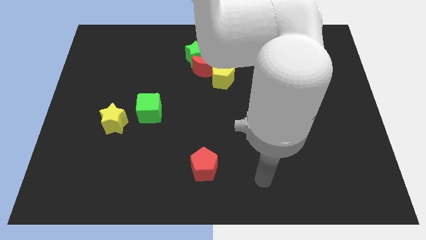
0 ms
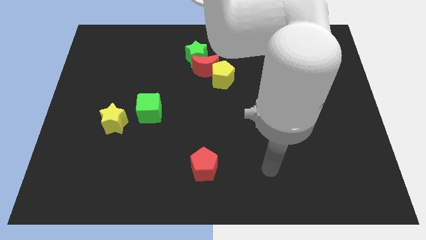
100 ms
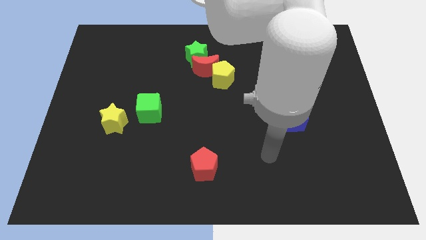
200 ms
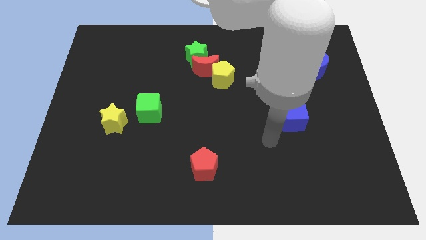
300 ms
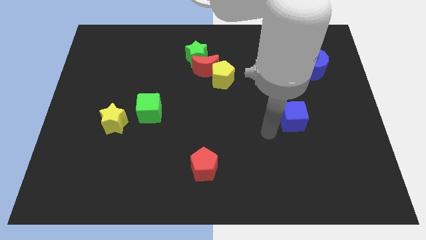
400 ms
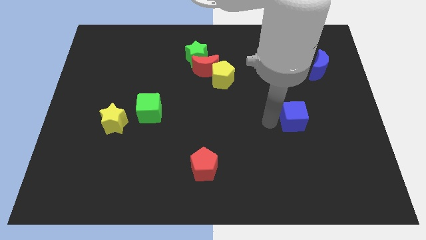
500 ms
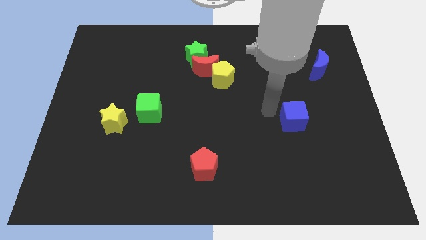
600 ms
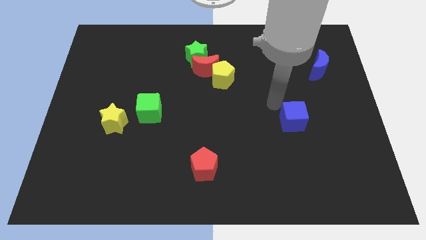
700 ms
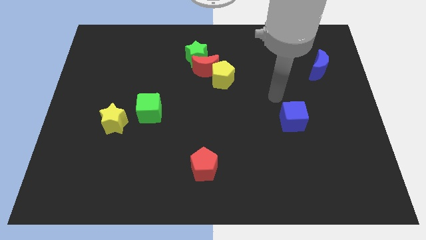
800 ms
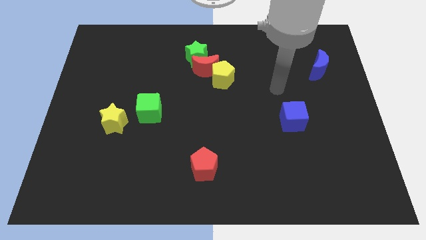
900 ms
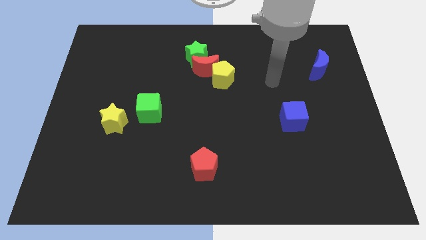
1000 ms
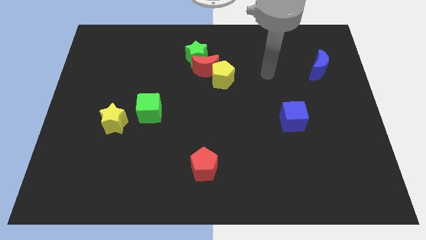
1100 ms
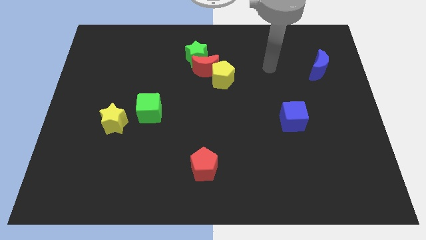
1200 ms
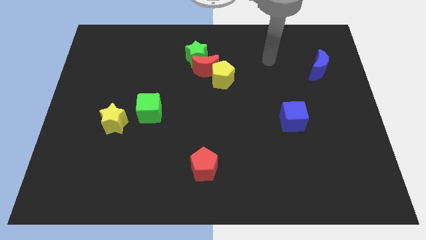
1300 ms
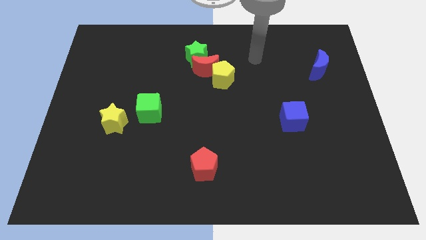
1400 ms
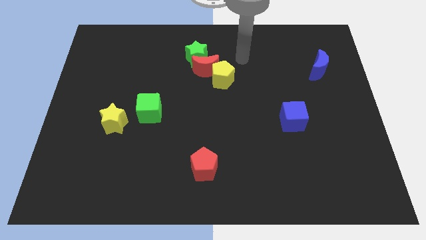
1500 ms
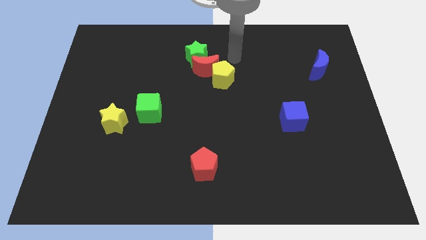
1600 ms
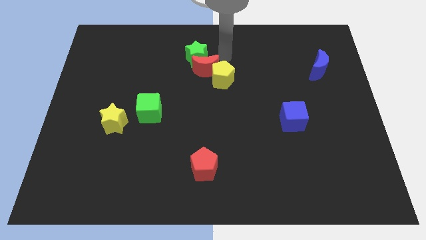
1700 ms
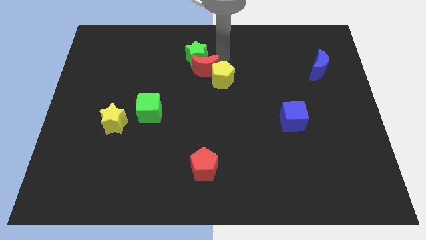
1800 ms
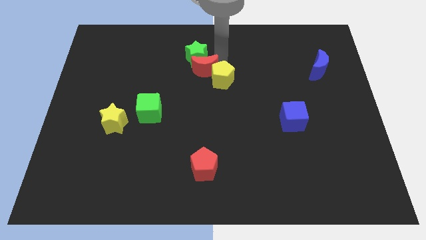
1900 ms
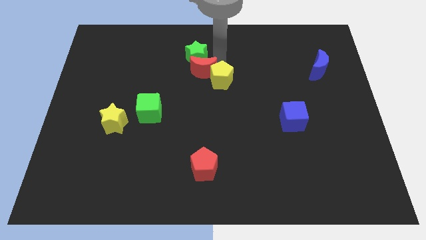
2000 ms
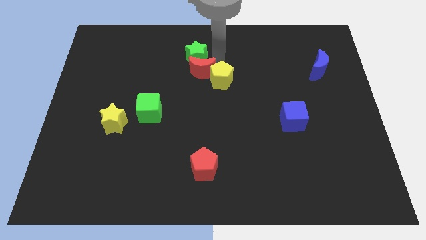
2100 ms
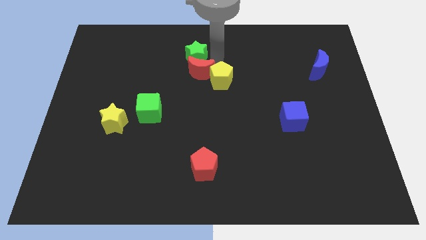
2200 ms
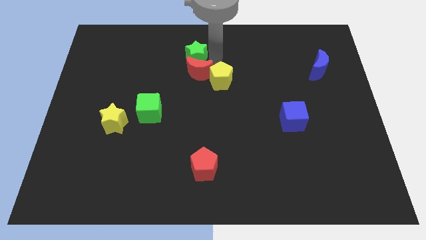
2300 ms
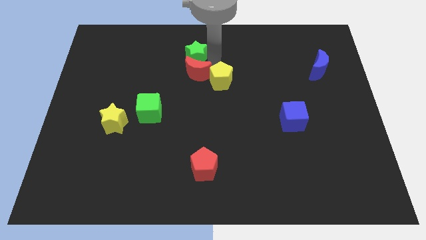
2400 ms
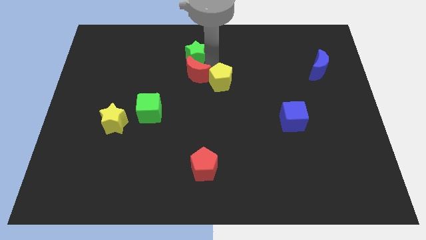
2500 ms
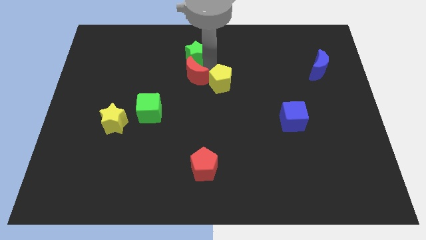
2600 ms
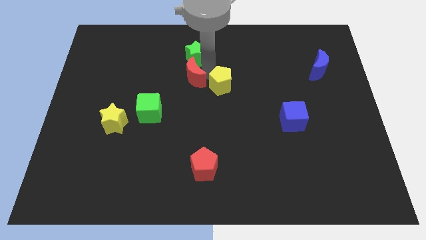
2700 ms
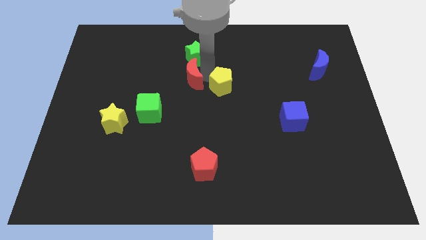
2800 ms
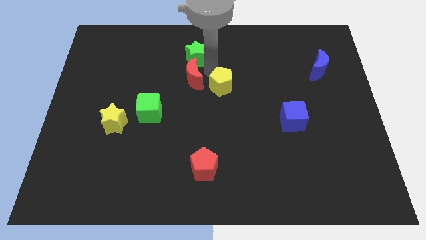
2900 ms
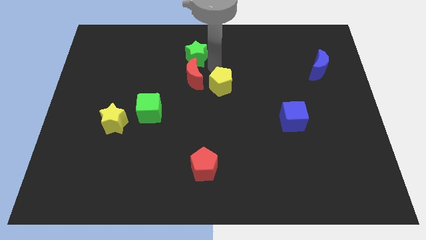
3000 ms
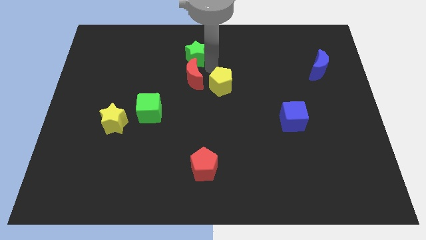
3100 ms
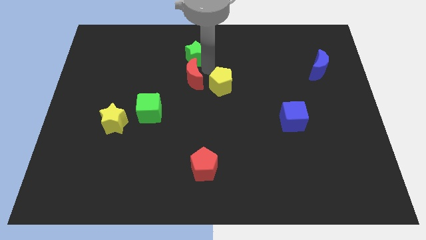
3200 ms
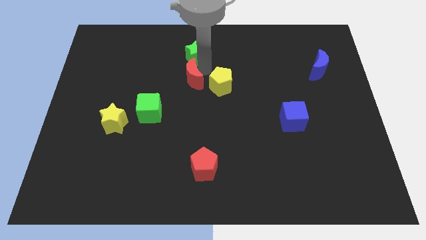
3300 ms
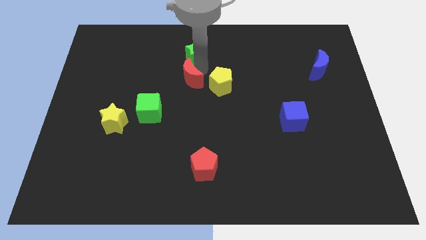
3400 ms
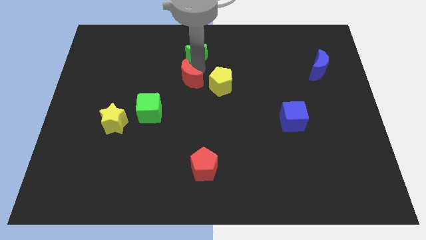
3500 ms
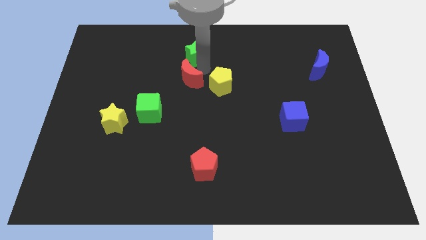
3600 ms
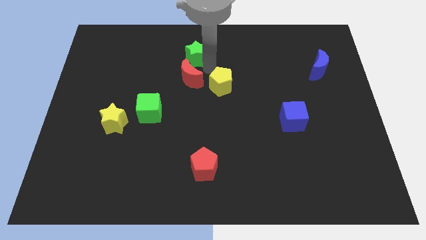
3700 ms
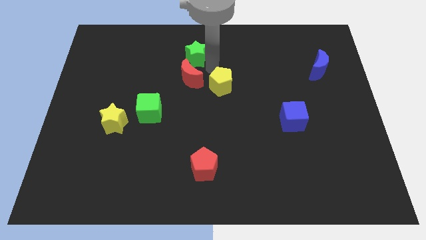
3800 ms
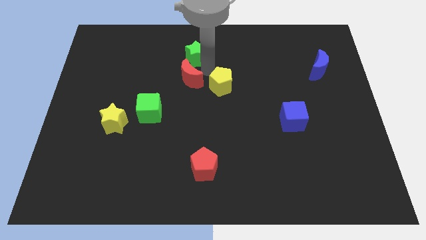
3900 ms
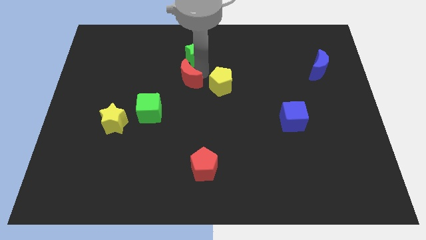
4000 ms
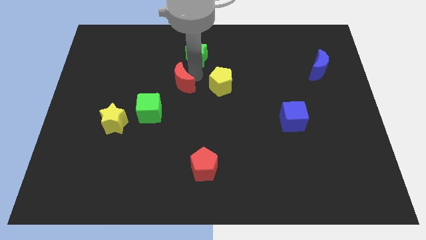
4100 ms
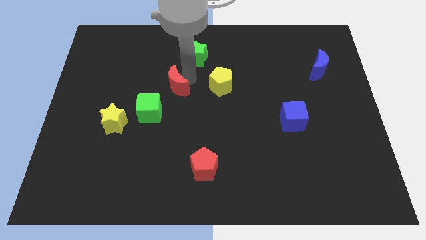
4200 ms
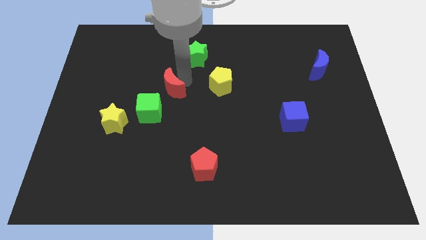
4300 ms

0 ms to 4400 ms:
move the red moon away from the yellow pentagon and green star

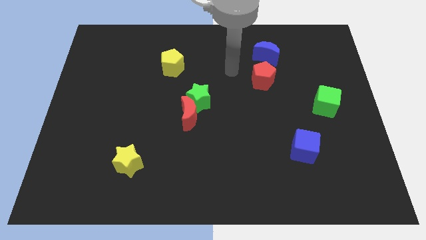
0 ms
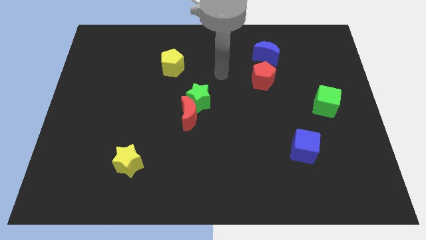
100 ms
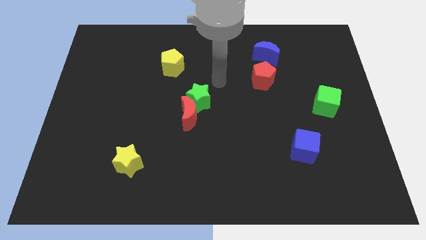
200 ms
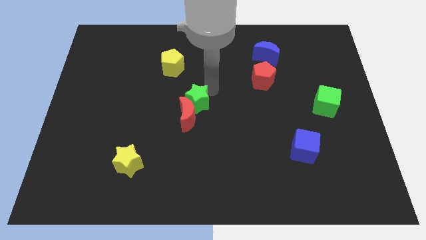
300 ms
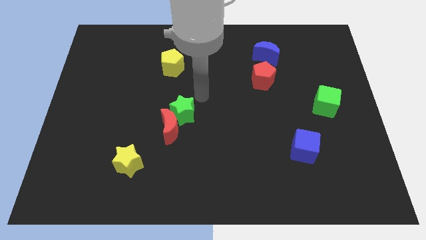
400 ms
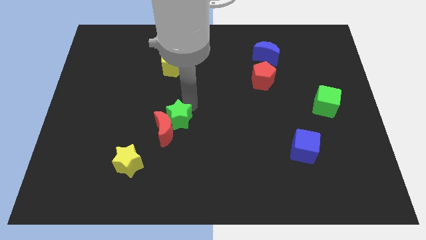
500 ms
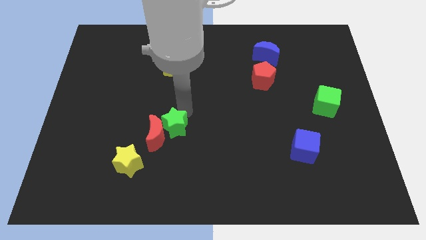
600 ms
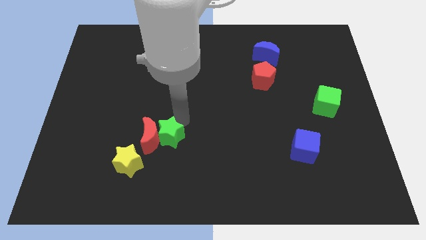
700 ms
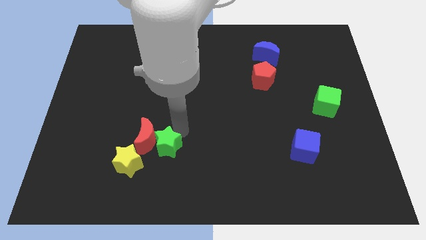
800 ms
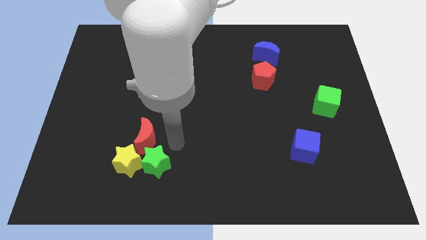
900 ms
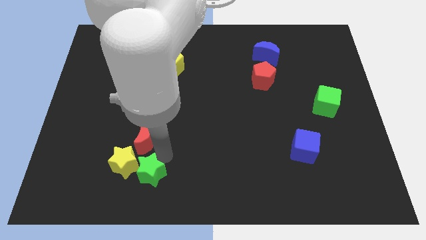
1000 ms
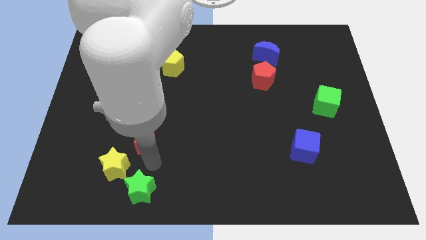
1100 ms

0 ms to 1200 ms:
pull the red moon apart from the green star

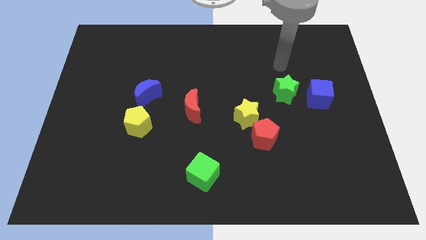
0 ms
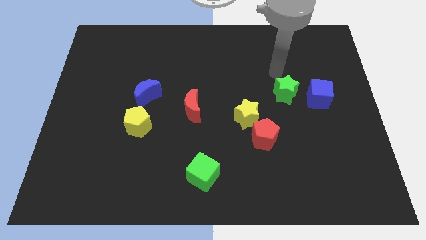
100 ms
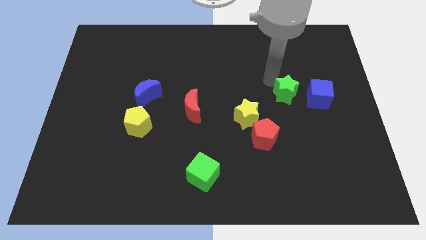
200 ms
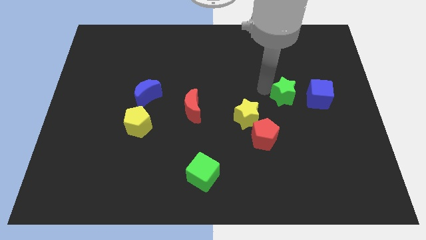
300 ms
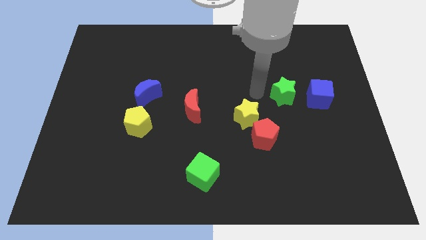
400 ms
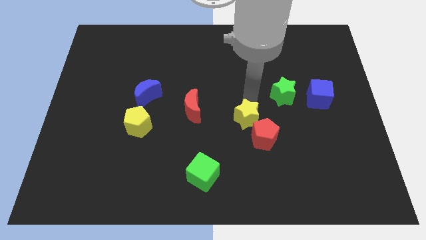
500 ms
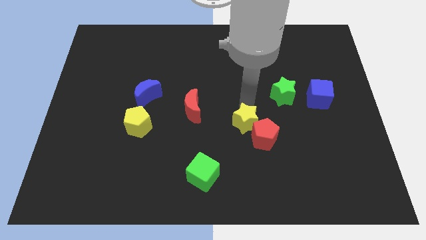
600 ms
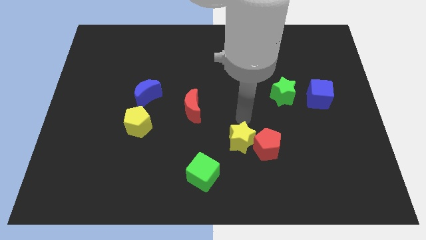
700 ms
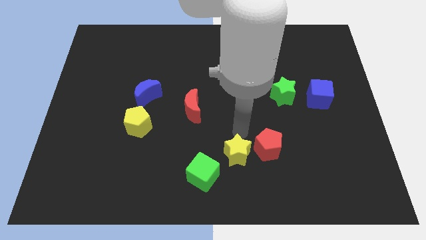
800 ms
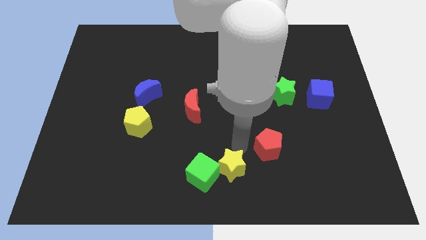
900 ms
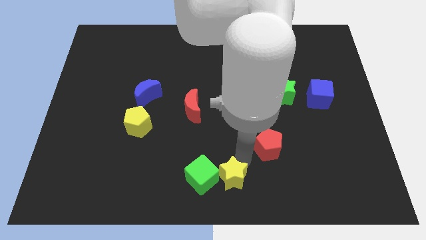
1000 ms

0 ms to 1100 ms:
move the red pentagon away from the yellow star

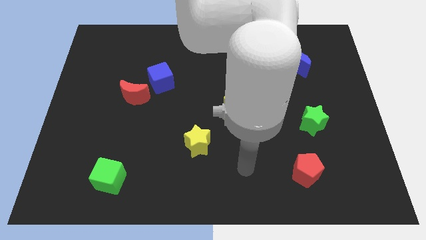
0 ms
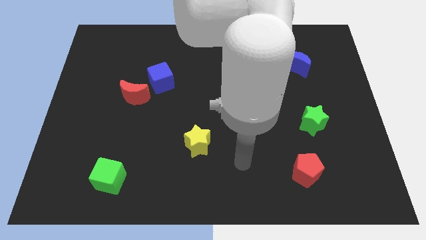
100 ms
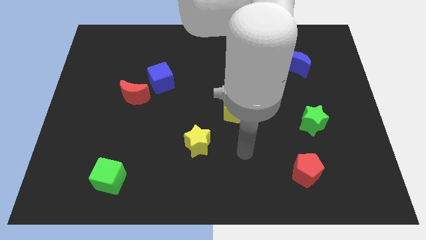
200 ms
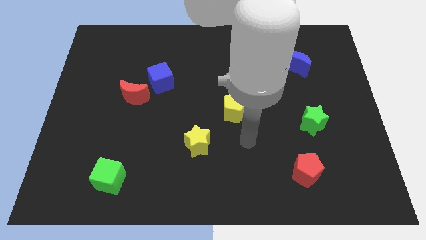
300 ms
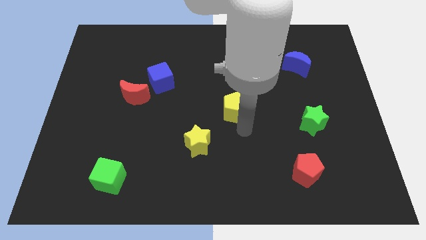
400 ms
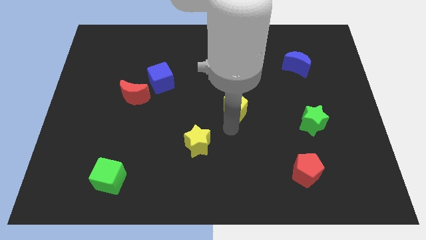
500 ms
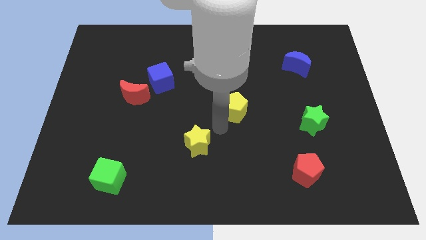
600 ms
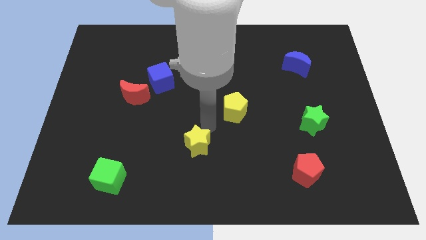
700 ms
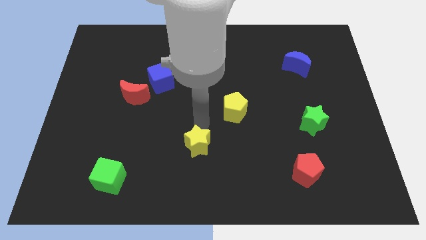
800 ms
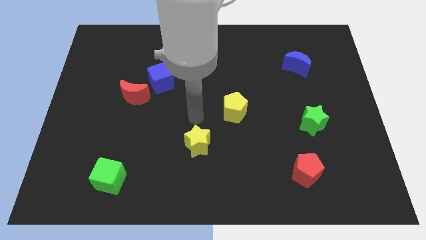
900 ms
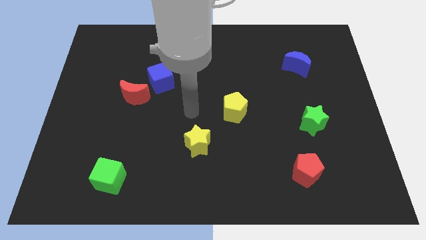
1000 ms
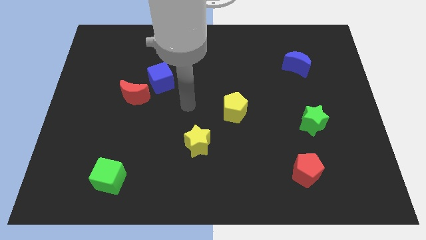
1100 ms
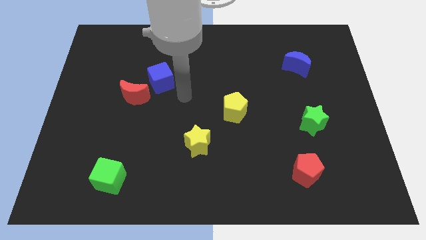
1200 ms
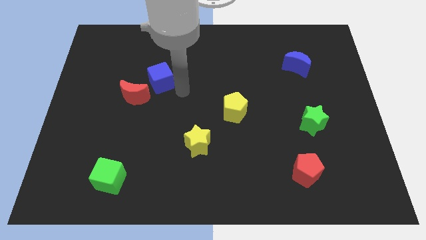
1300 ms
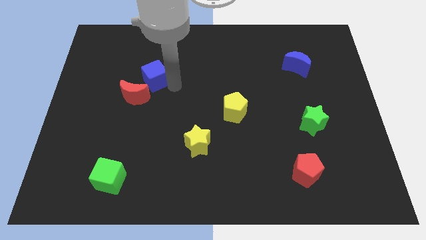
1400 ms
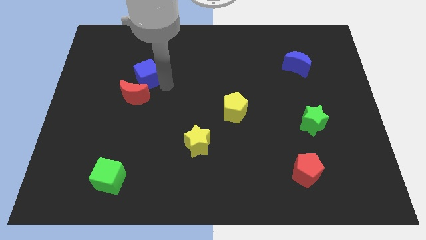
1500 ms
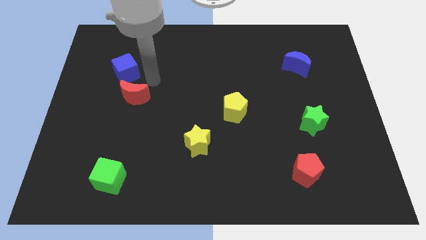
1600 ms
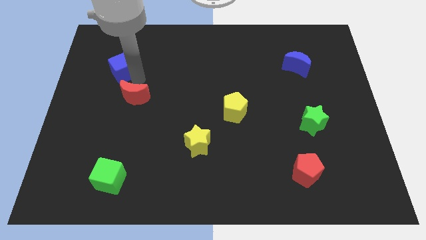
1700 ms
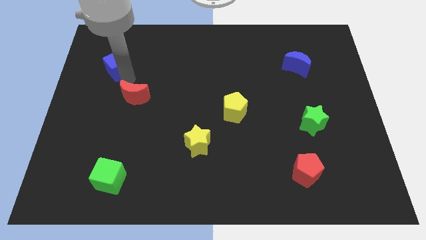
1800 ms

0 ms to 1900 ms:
pull the red moon apart from the blue cube

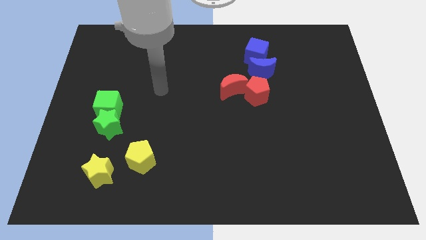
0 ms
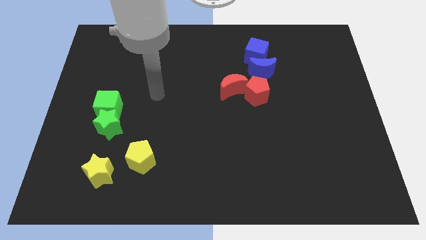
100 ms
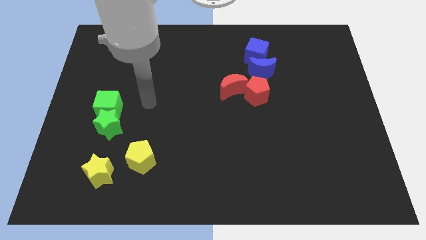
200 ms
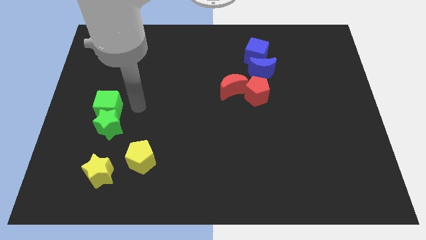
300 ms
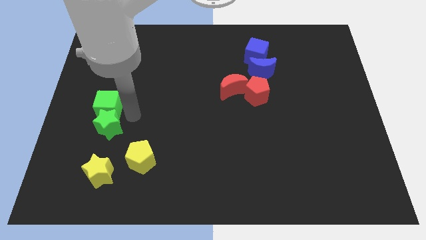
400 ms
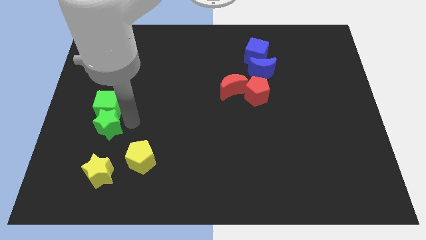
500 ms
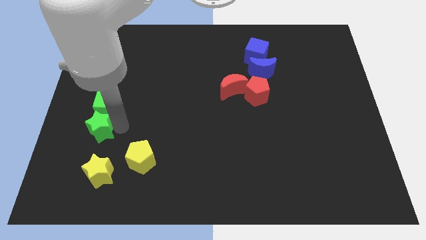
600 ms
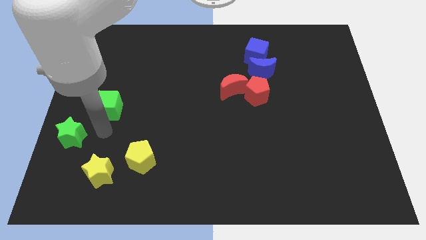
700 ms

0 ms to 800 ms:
pull the green cube apart from the green star
